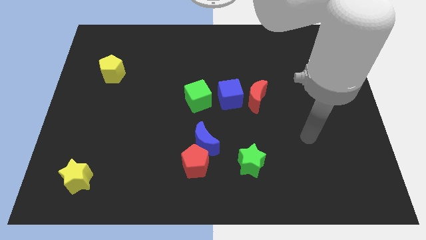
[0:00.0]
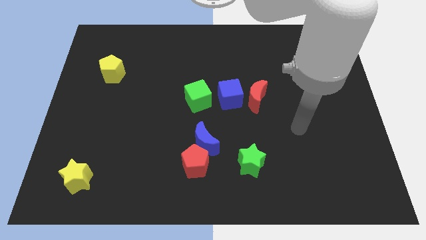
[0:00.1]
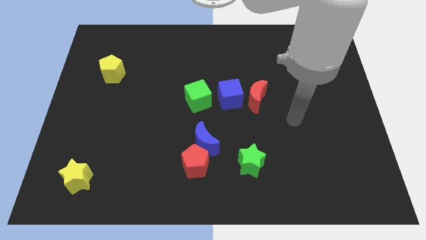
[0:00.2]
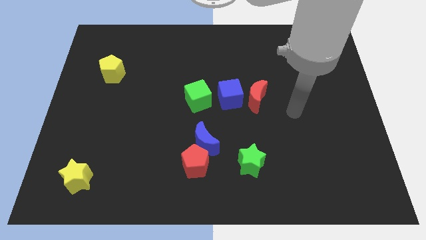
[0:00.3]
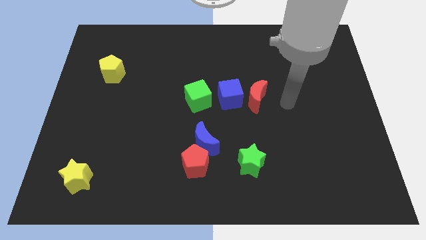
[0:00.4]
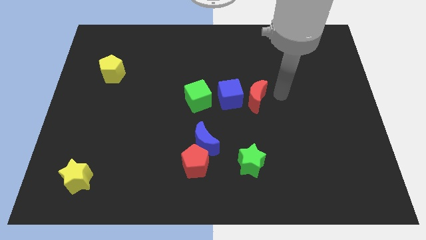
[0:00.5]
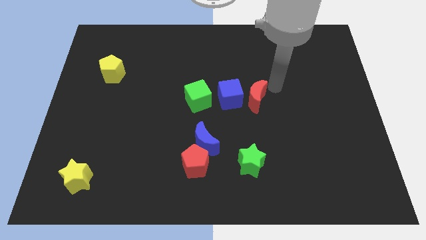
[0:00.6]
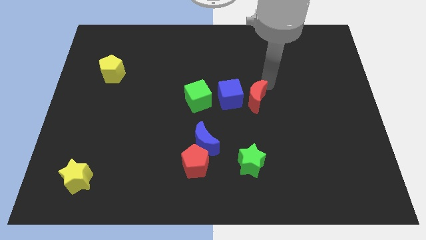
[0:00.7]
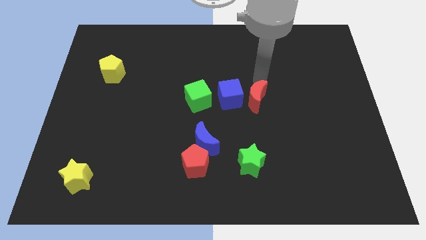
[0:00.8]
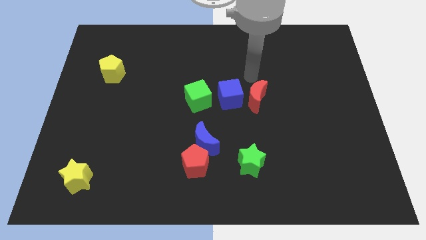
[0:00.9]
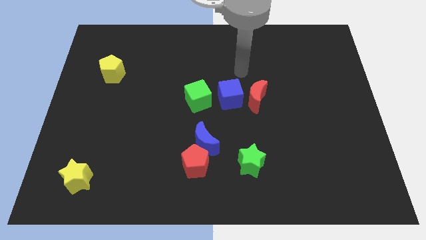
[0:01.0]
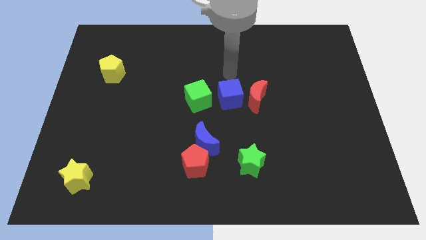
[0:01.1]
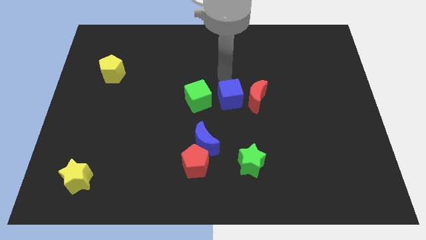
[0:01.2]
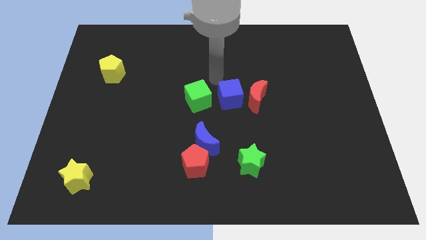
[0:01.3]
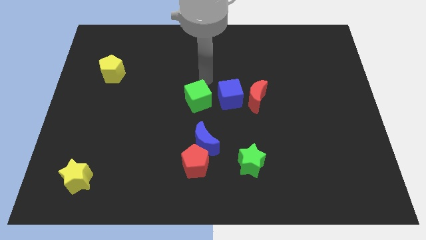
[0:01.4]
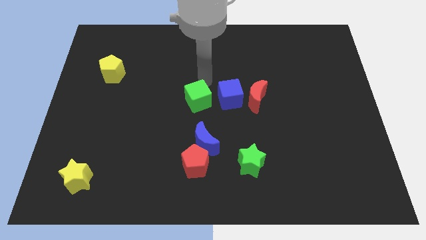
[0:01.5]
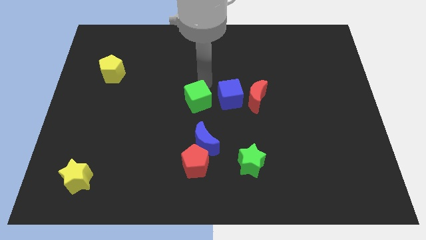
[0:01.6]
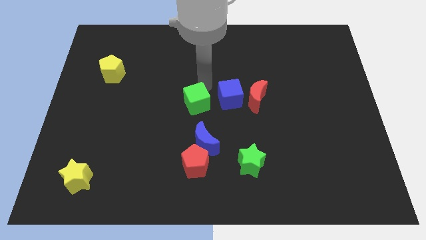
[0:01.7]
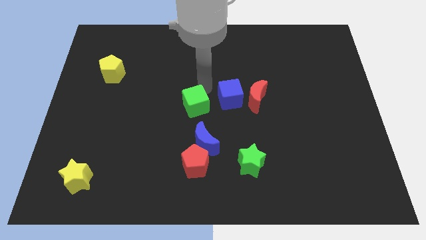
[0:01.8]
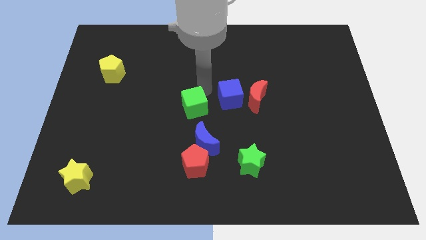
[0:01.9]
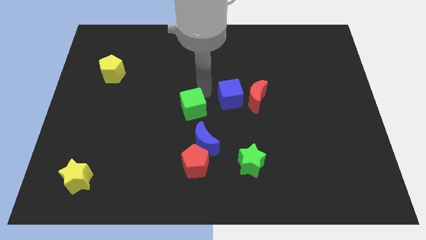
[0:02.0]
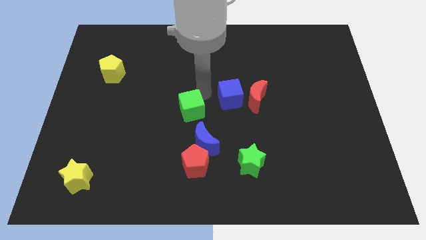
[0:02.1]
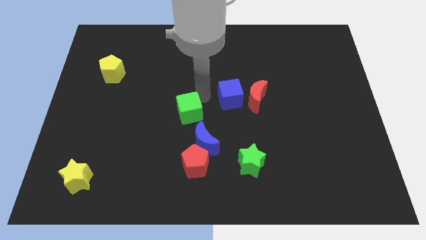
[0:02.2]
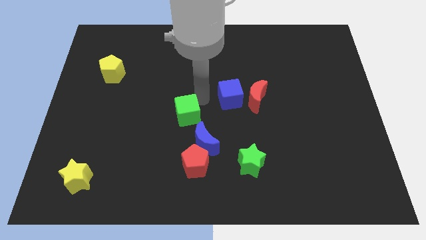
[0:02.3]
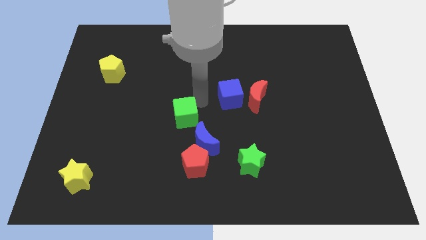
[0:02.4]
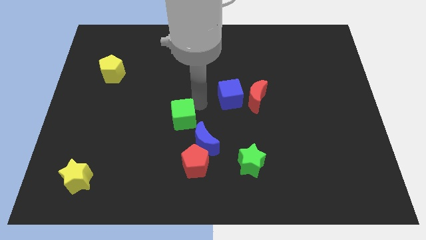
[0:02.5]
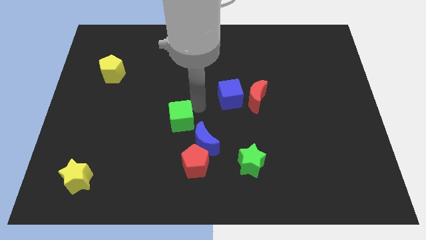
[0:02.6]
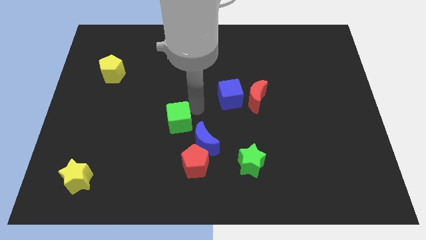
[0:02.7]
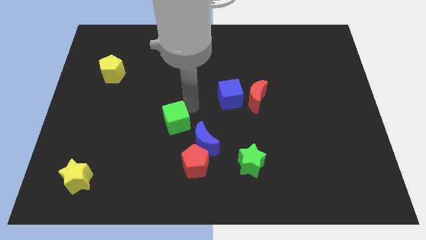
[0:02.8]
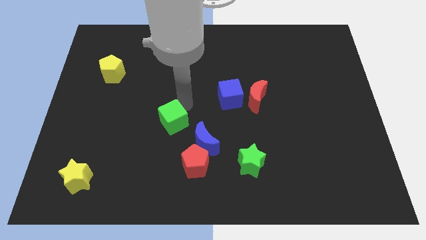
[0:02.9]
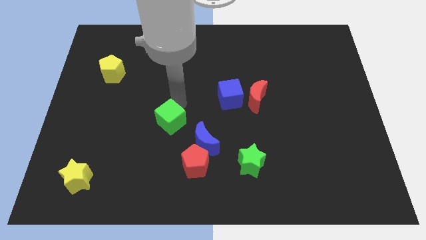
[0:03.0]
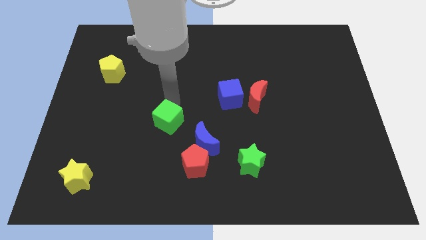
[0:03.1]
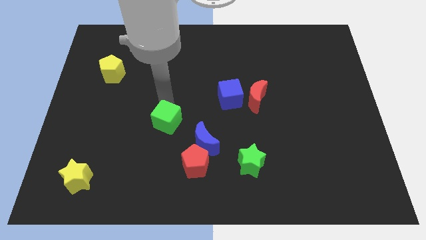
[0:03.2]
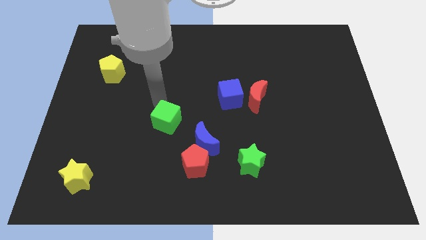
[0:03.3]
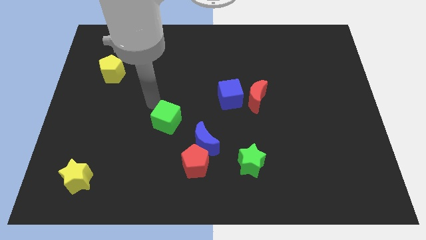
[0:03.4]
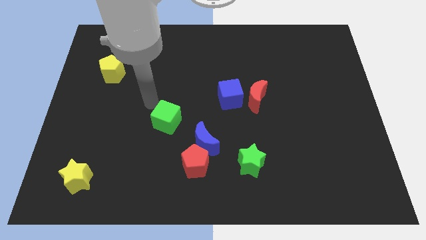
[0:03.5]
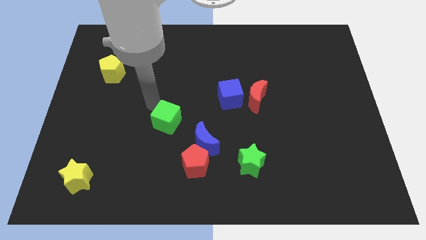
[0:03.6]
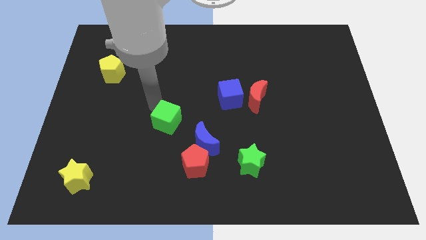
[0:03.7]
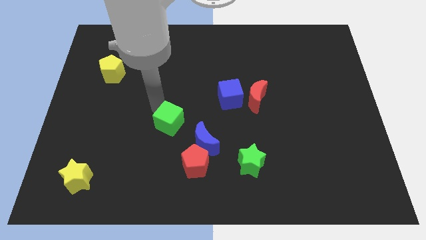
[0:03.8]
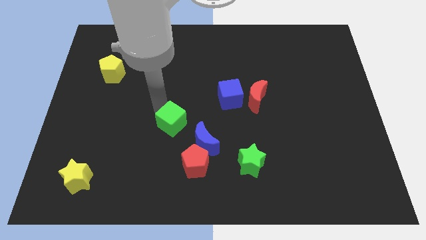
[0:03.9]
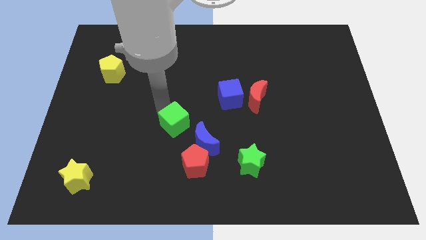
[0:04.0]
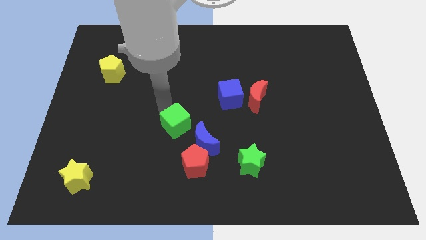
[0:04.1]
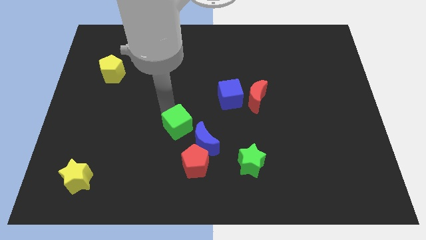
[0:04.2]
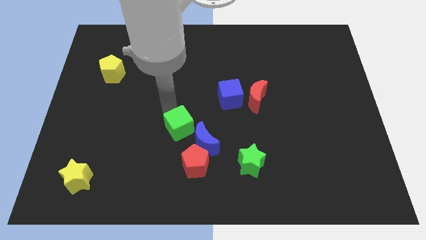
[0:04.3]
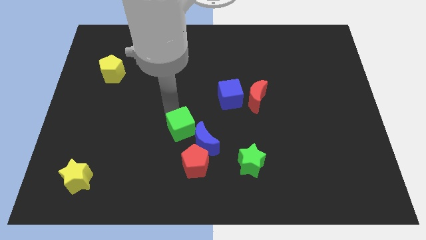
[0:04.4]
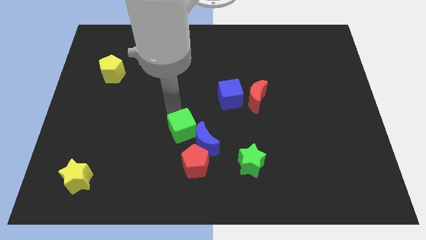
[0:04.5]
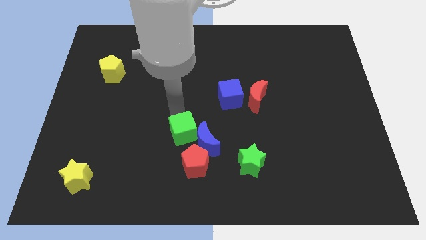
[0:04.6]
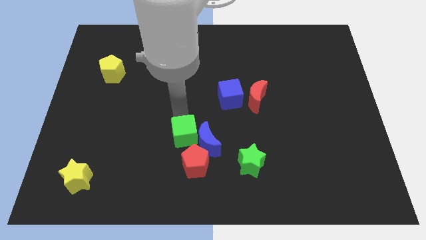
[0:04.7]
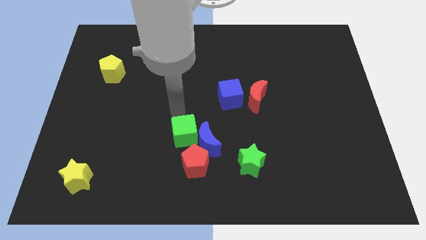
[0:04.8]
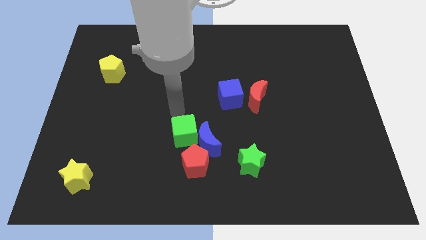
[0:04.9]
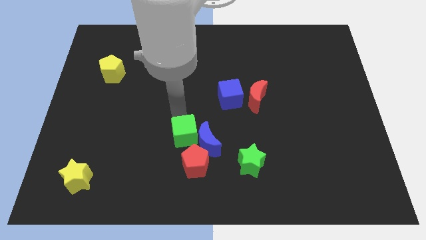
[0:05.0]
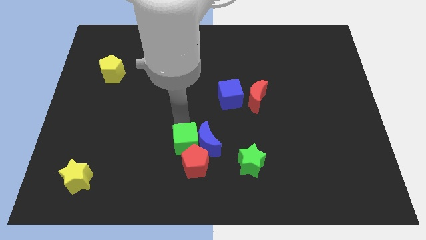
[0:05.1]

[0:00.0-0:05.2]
slide the green cube next to the red pentagon

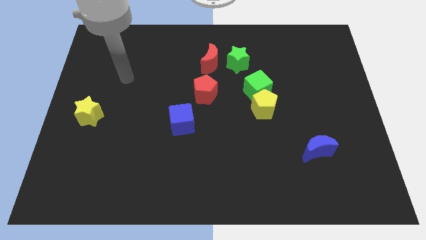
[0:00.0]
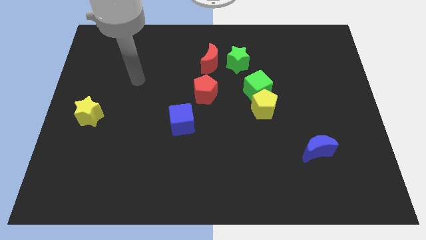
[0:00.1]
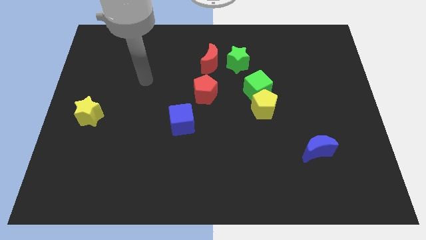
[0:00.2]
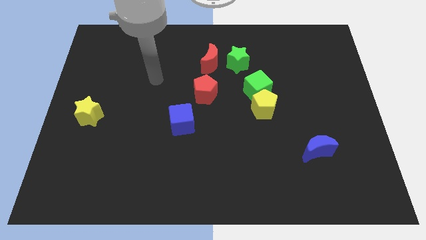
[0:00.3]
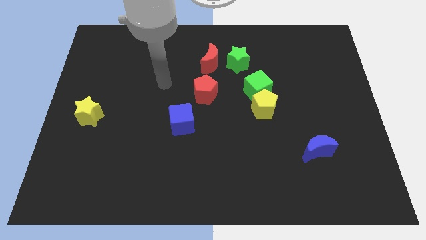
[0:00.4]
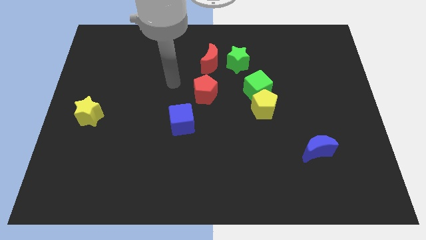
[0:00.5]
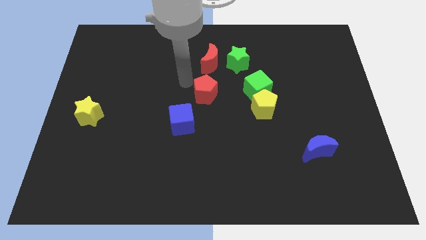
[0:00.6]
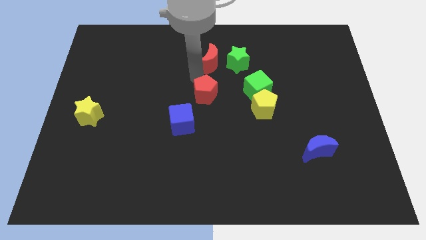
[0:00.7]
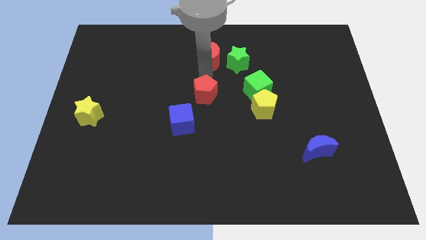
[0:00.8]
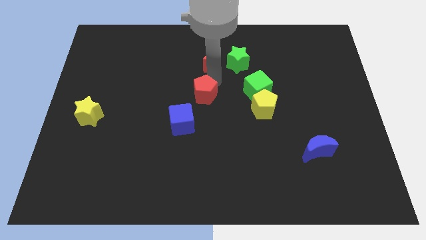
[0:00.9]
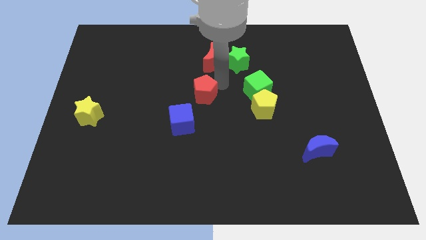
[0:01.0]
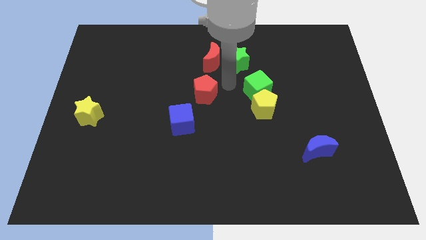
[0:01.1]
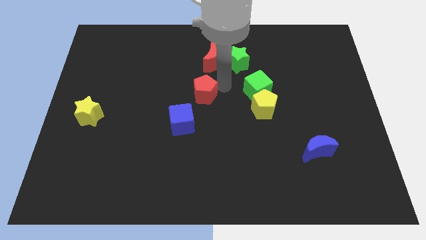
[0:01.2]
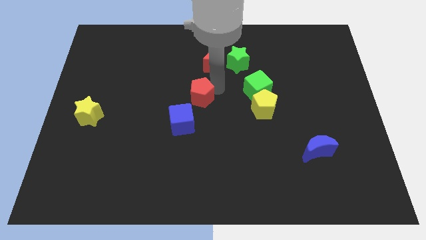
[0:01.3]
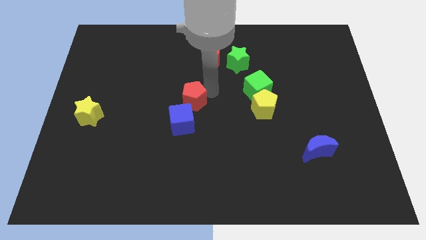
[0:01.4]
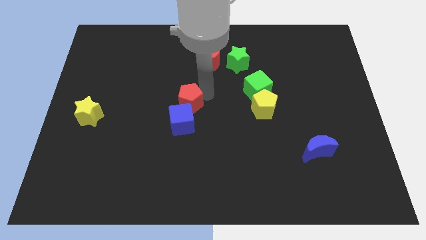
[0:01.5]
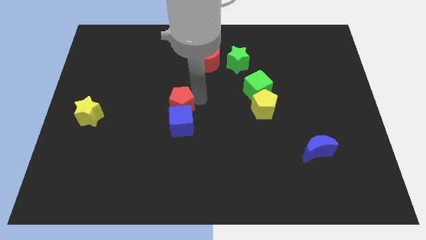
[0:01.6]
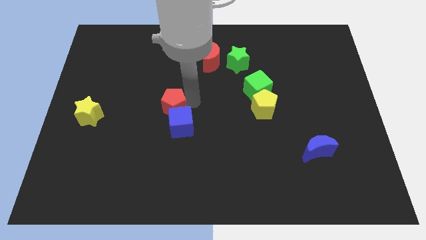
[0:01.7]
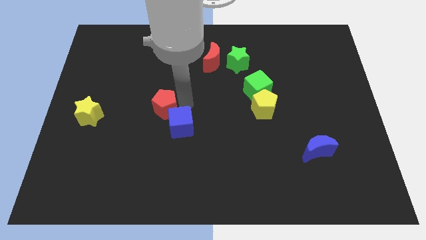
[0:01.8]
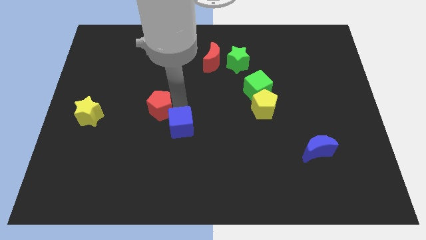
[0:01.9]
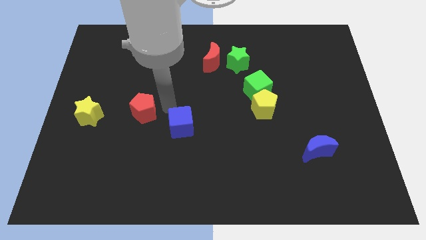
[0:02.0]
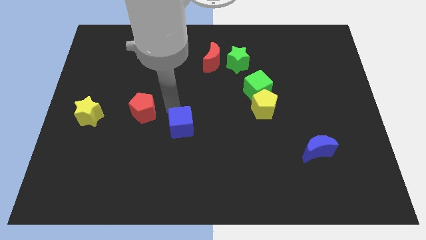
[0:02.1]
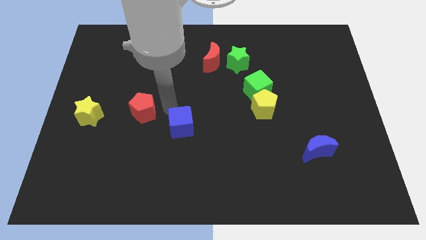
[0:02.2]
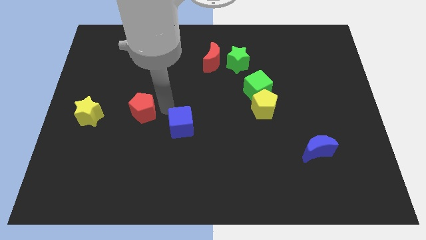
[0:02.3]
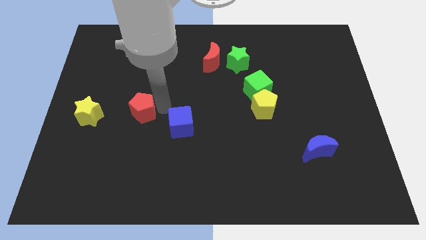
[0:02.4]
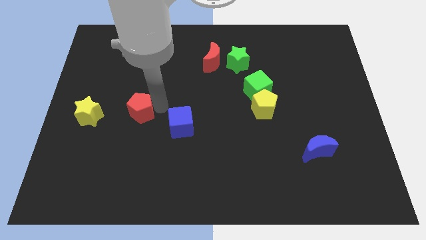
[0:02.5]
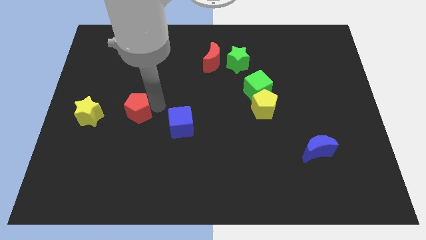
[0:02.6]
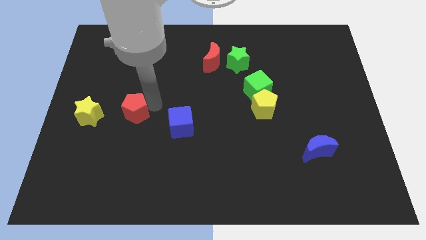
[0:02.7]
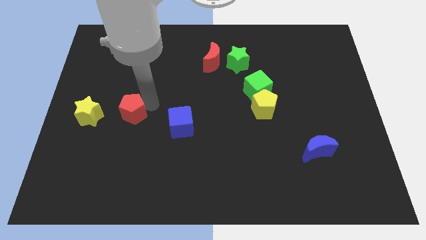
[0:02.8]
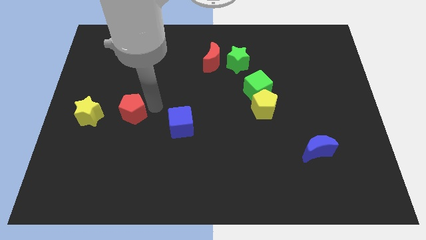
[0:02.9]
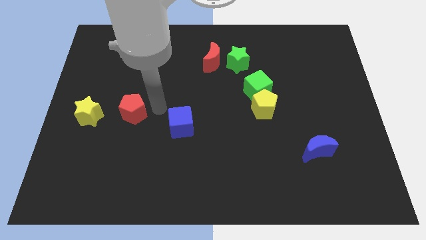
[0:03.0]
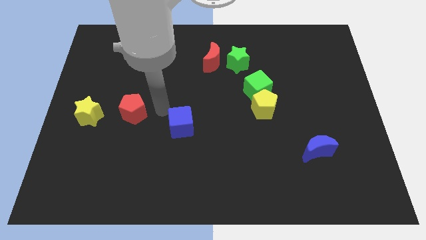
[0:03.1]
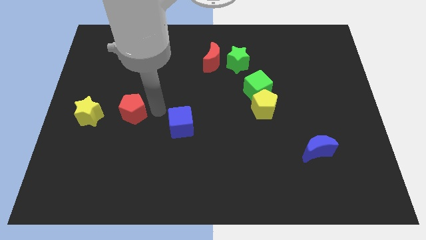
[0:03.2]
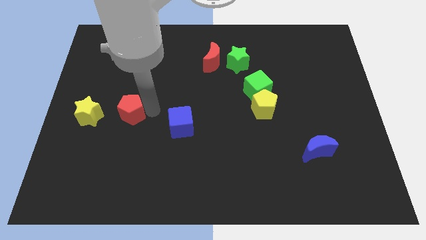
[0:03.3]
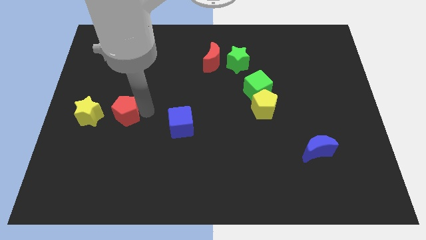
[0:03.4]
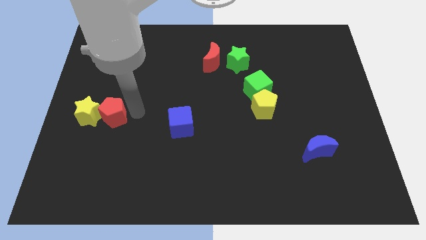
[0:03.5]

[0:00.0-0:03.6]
slide the red pentagon next to the yellow star
